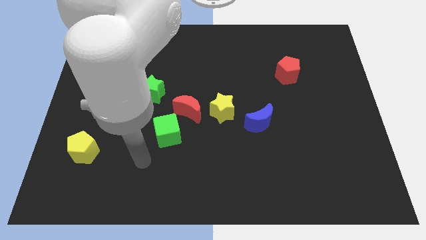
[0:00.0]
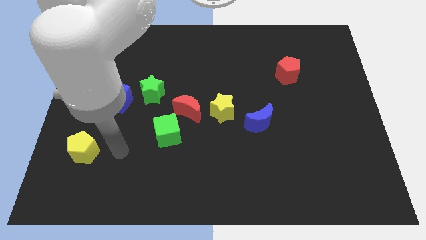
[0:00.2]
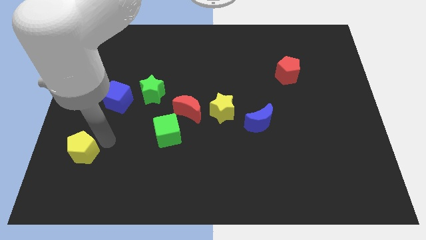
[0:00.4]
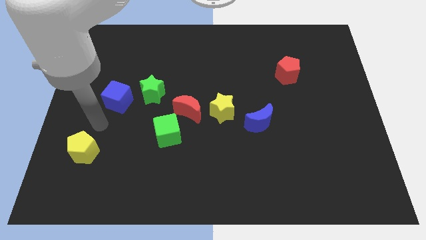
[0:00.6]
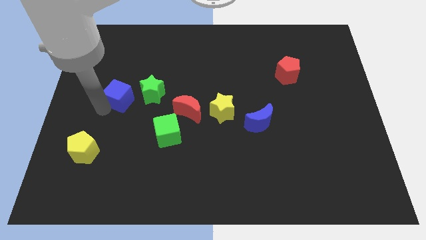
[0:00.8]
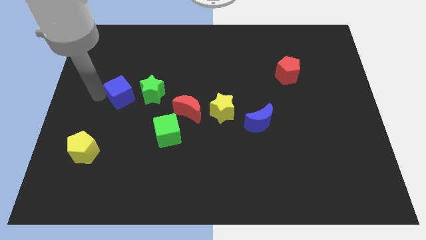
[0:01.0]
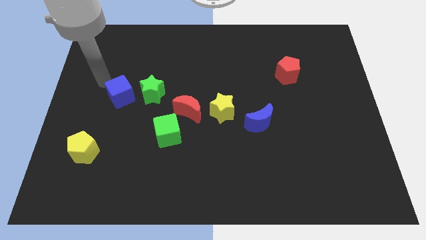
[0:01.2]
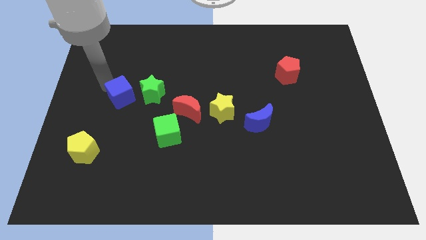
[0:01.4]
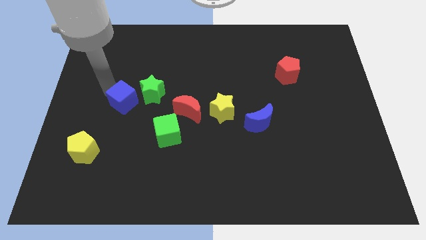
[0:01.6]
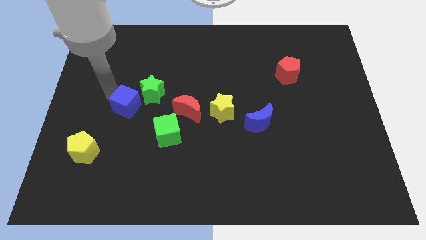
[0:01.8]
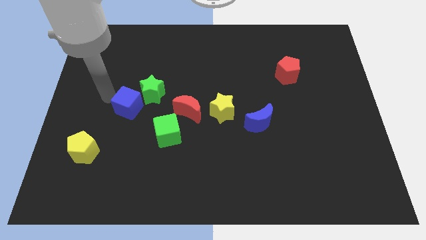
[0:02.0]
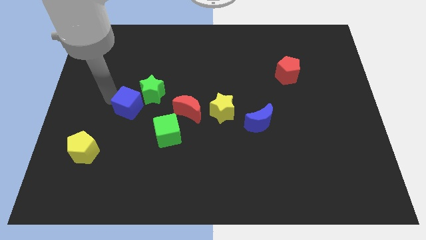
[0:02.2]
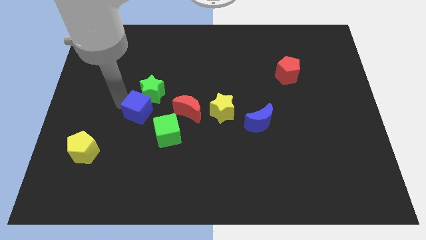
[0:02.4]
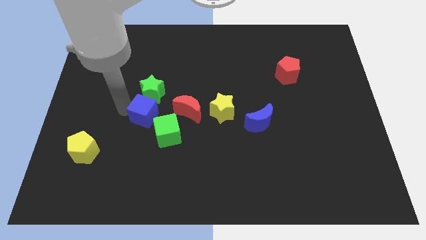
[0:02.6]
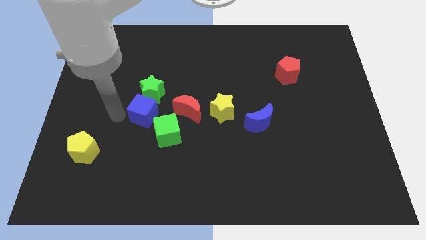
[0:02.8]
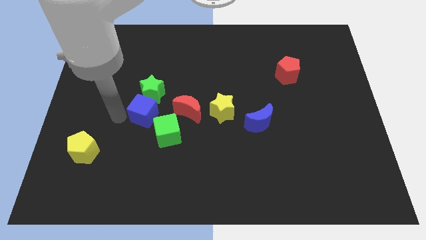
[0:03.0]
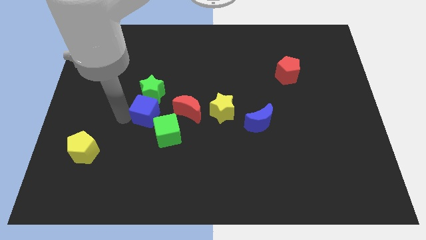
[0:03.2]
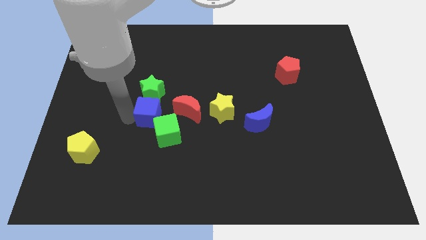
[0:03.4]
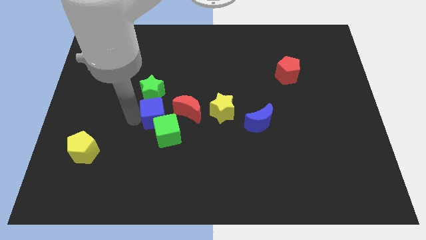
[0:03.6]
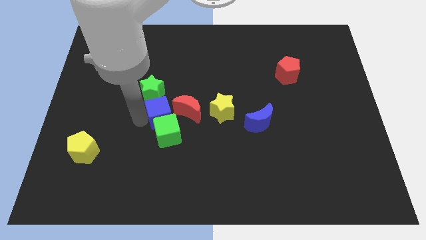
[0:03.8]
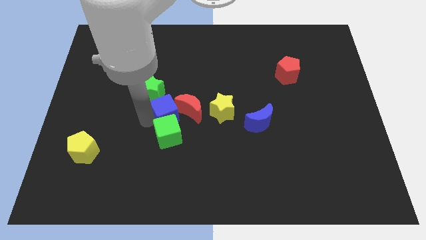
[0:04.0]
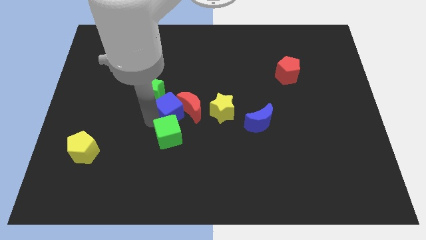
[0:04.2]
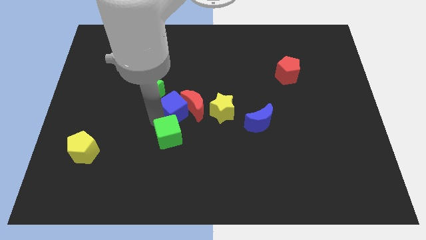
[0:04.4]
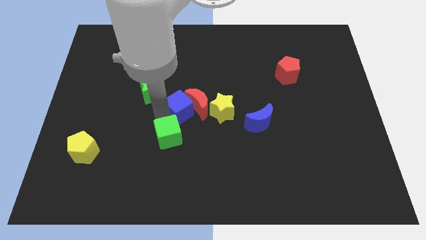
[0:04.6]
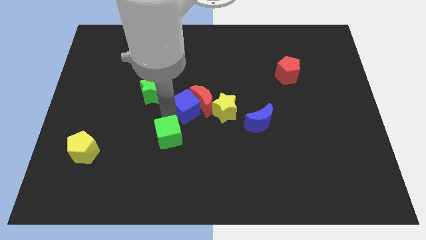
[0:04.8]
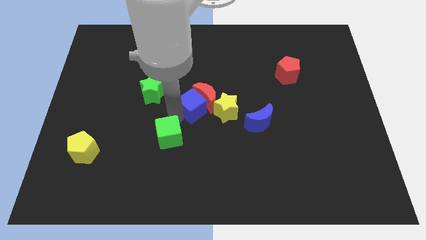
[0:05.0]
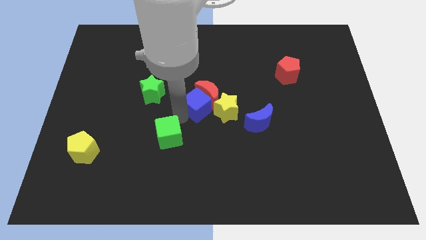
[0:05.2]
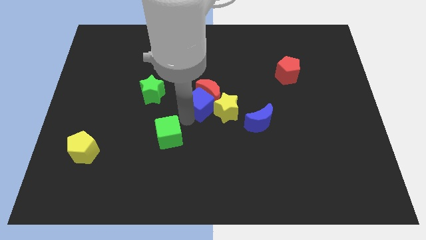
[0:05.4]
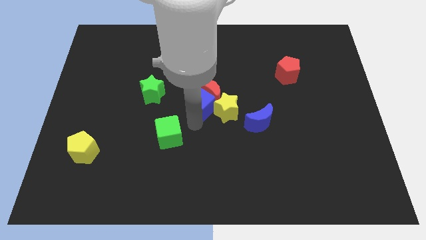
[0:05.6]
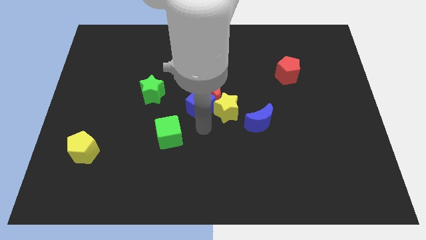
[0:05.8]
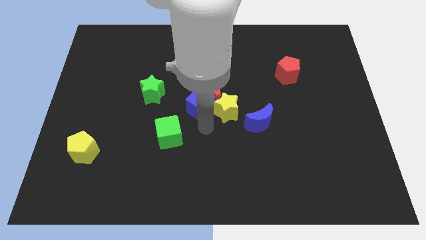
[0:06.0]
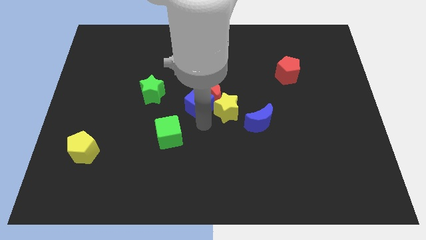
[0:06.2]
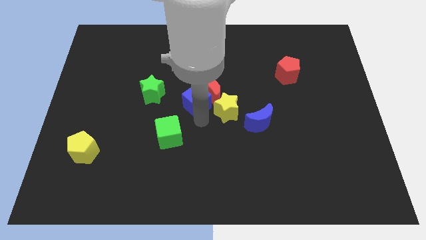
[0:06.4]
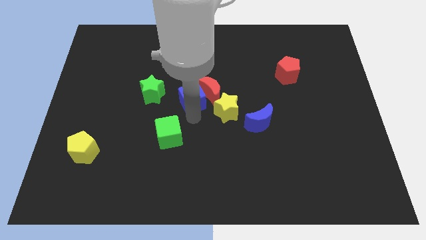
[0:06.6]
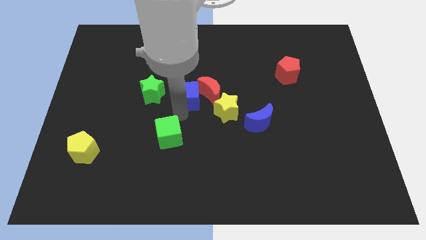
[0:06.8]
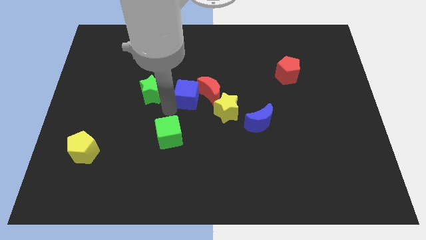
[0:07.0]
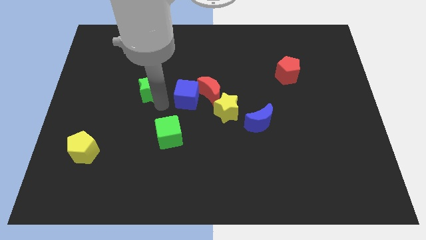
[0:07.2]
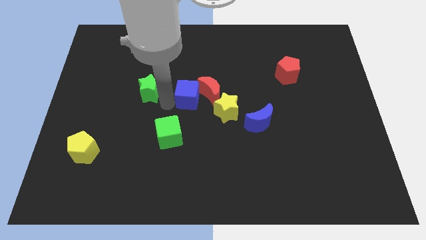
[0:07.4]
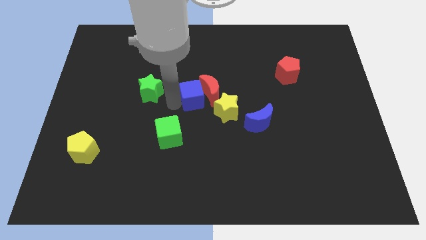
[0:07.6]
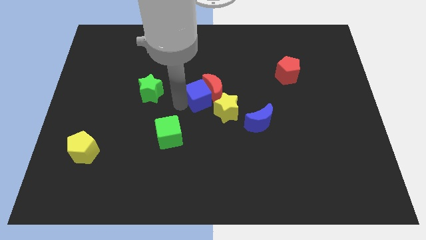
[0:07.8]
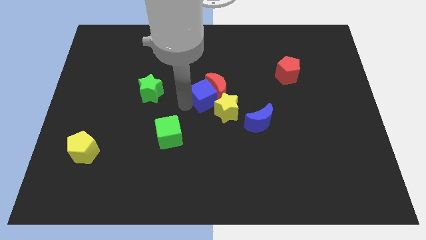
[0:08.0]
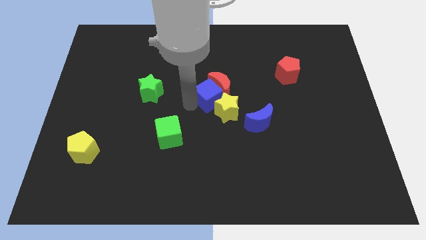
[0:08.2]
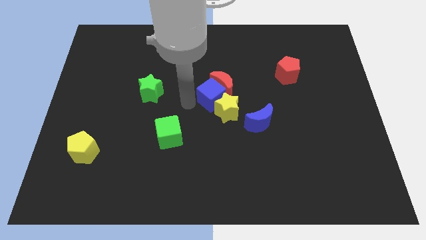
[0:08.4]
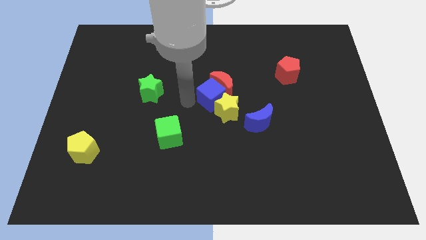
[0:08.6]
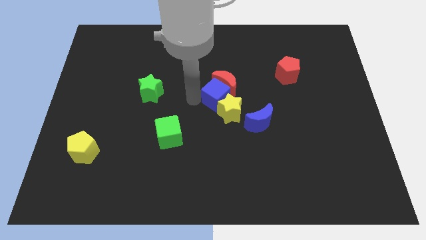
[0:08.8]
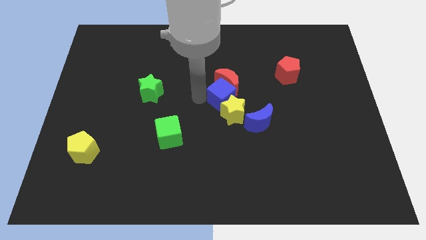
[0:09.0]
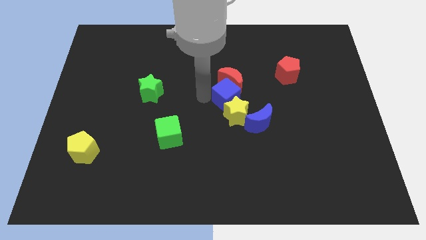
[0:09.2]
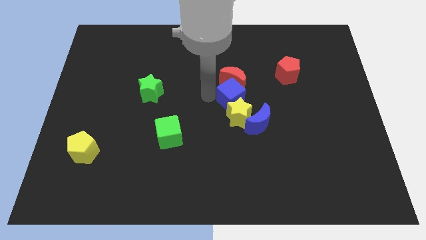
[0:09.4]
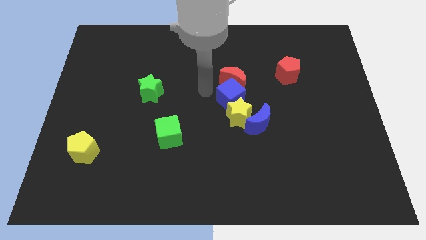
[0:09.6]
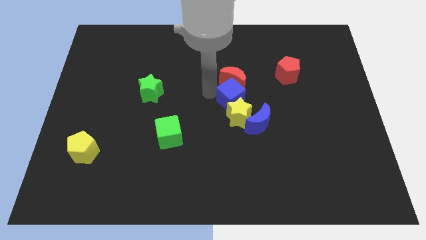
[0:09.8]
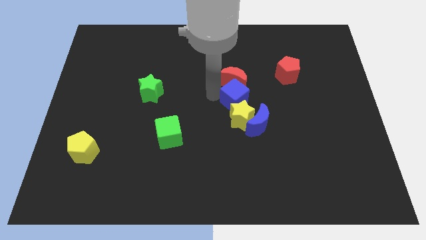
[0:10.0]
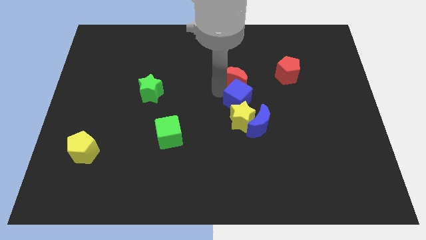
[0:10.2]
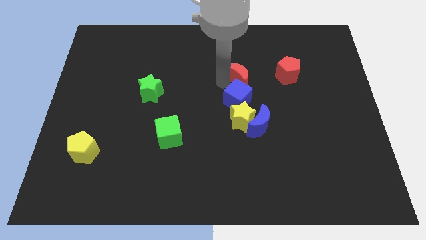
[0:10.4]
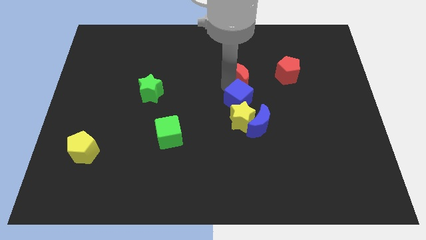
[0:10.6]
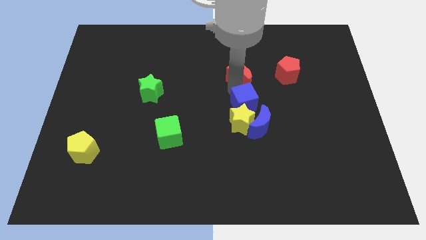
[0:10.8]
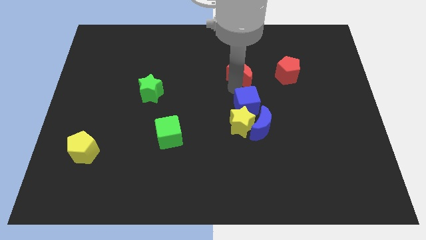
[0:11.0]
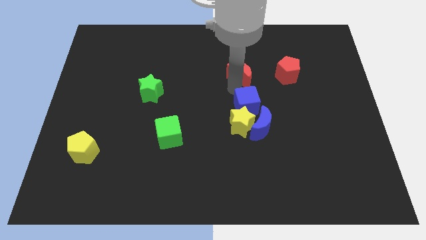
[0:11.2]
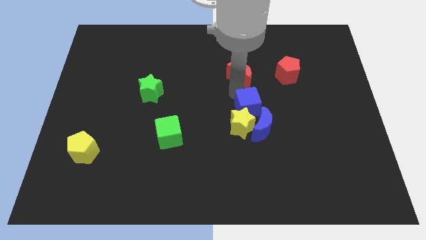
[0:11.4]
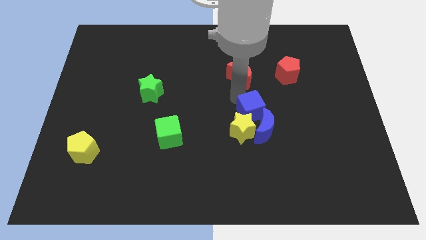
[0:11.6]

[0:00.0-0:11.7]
move the blue cube to the blue moon
